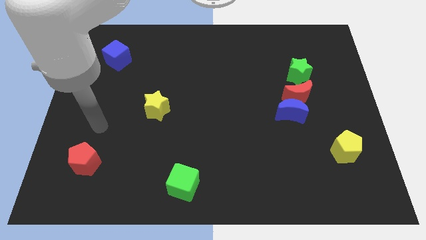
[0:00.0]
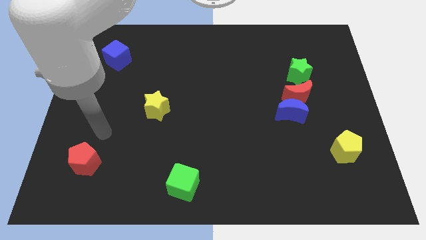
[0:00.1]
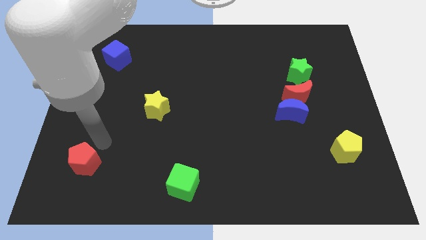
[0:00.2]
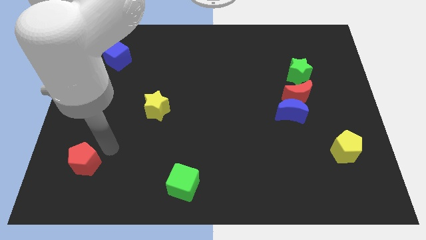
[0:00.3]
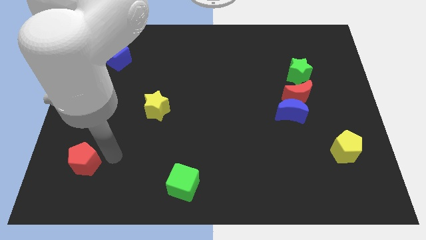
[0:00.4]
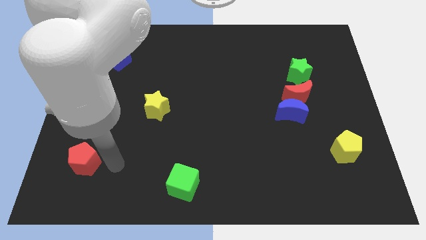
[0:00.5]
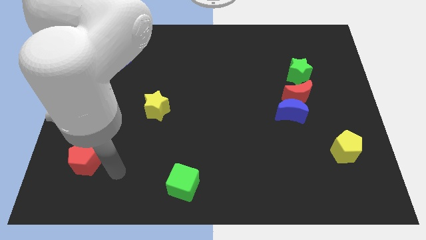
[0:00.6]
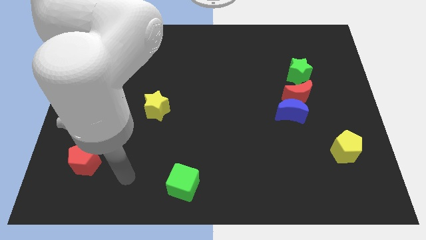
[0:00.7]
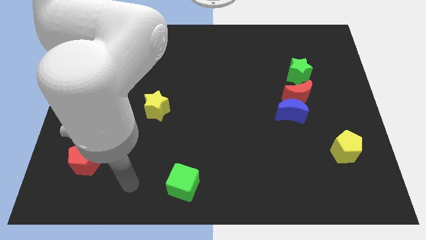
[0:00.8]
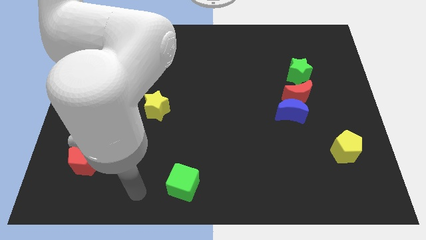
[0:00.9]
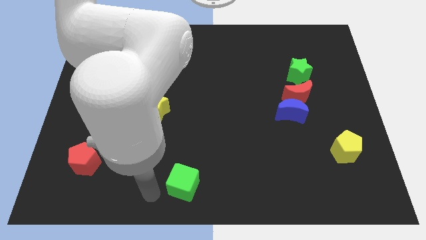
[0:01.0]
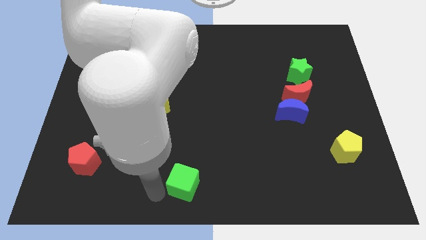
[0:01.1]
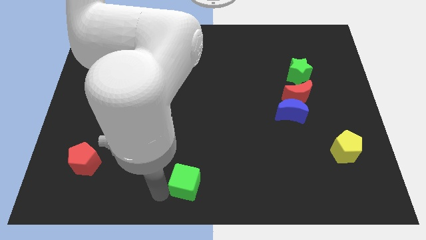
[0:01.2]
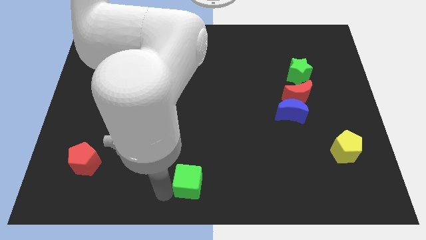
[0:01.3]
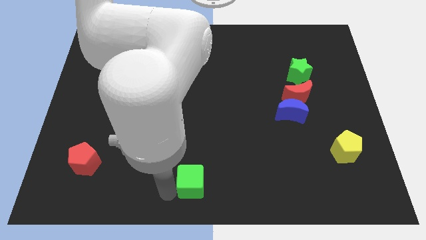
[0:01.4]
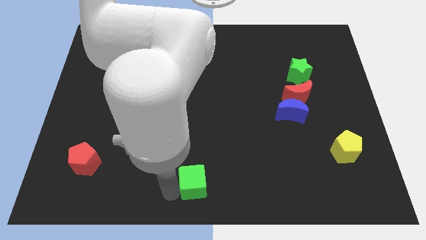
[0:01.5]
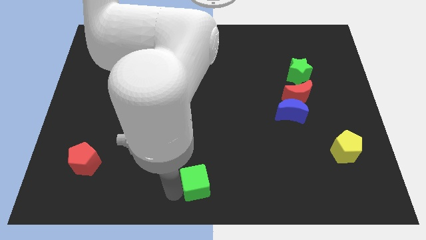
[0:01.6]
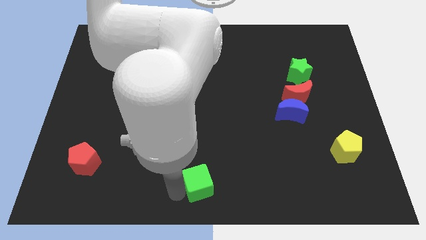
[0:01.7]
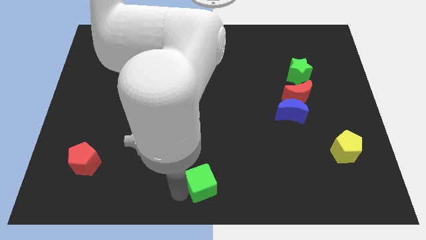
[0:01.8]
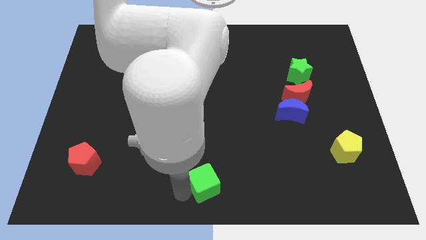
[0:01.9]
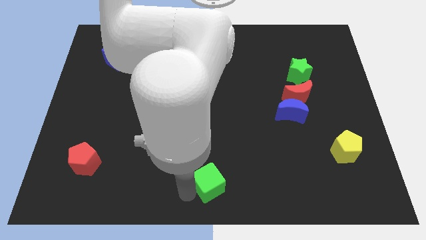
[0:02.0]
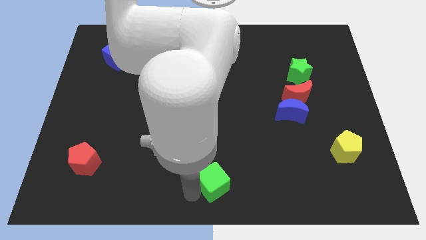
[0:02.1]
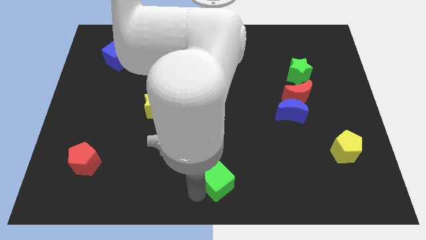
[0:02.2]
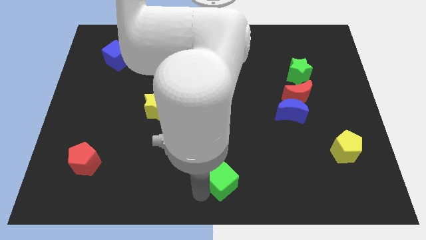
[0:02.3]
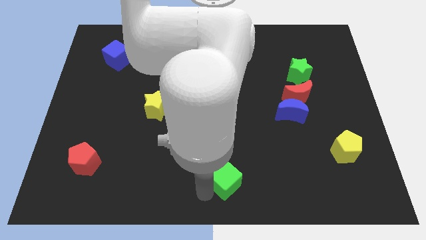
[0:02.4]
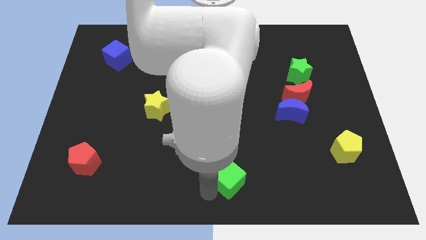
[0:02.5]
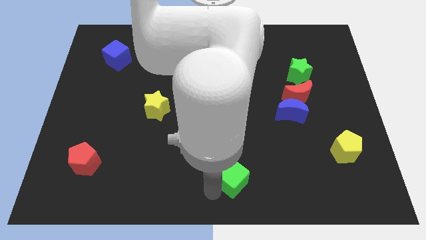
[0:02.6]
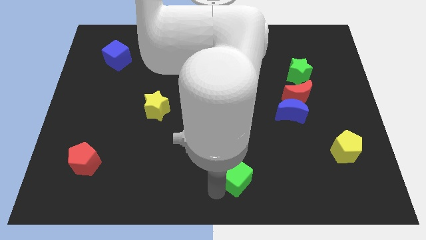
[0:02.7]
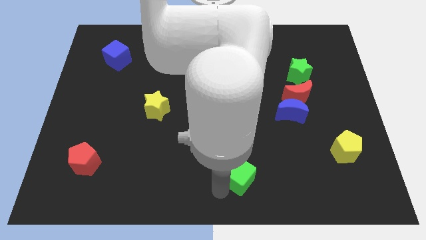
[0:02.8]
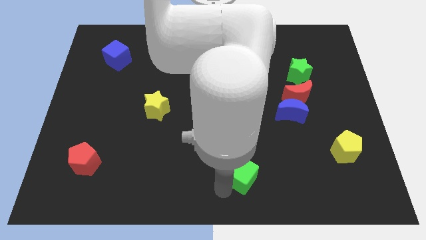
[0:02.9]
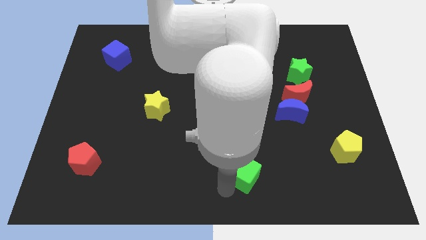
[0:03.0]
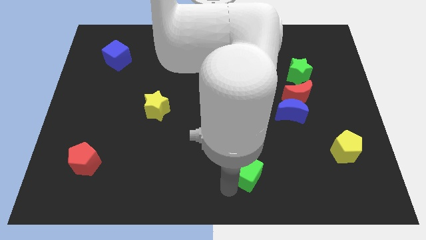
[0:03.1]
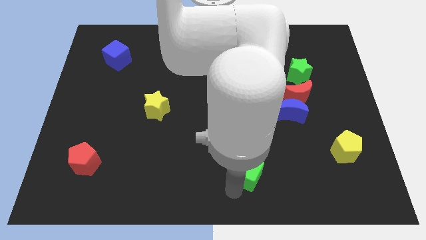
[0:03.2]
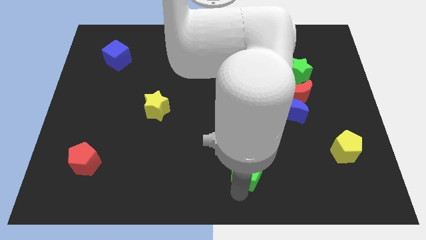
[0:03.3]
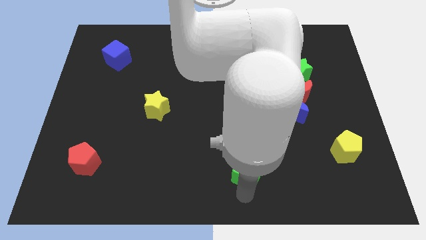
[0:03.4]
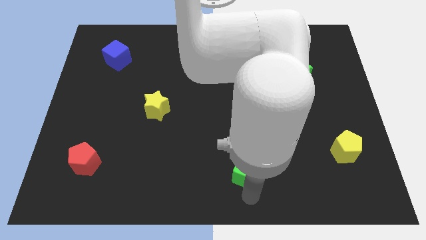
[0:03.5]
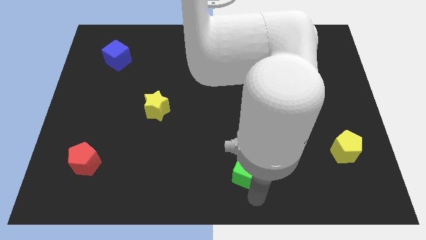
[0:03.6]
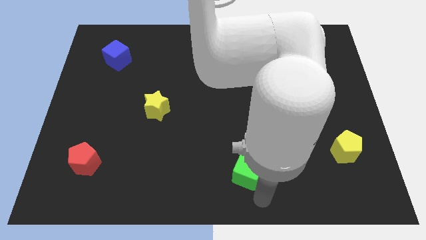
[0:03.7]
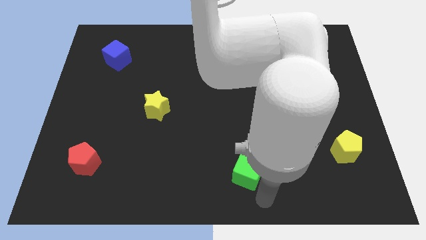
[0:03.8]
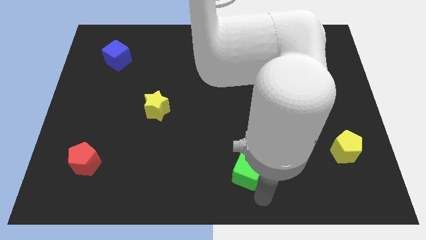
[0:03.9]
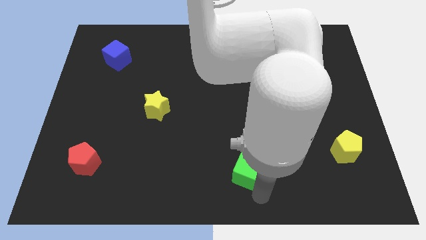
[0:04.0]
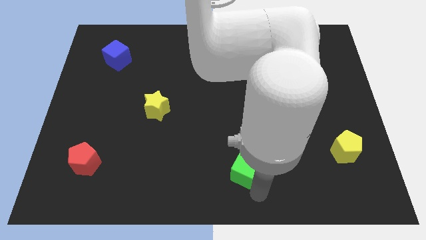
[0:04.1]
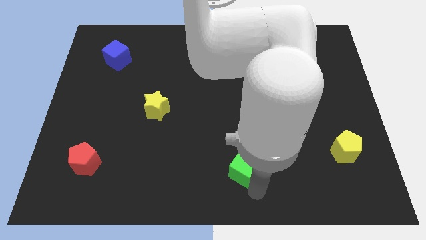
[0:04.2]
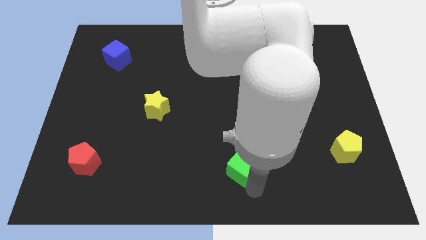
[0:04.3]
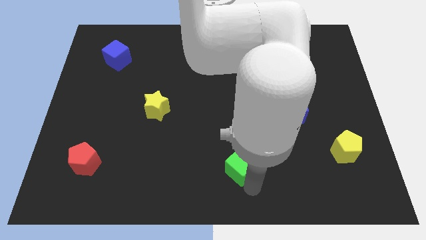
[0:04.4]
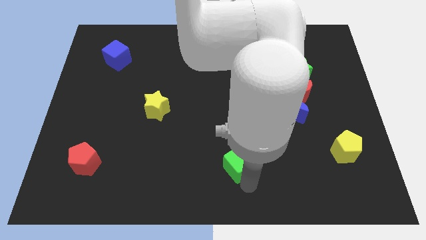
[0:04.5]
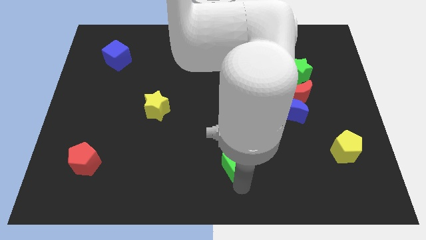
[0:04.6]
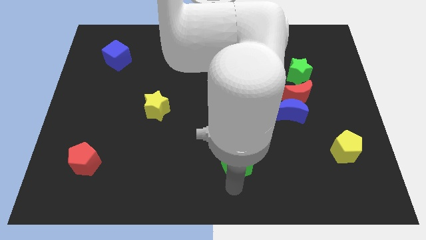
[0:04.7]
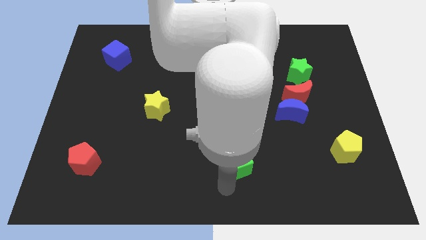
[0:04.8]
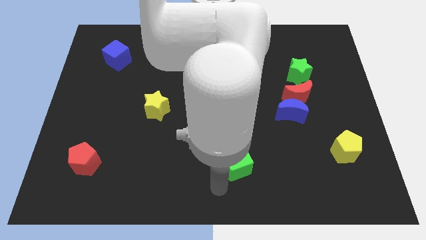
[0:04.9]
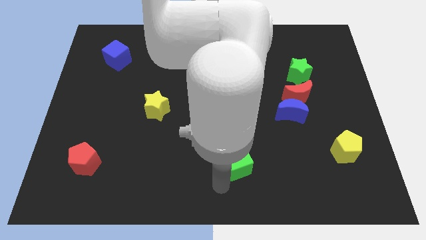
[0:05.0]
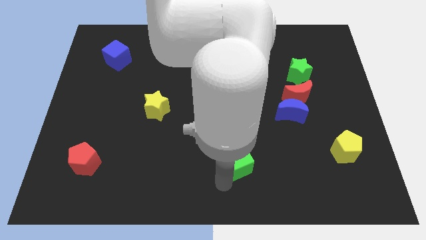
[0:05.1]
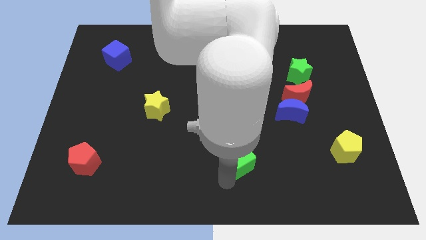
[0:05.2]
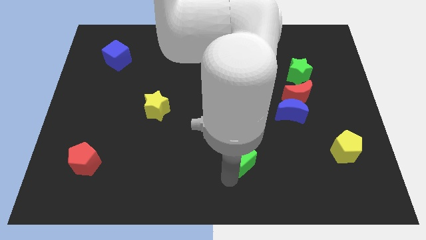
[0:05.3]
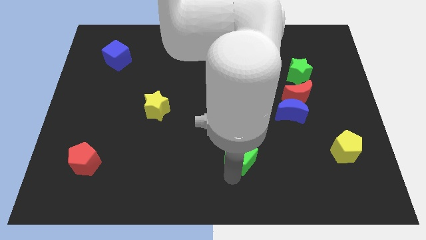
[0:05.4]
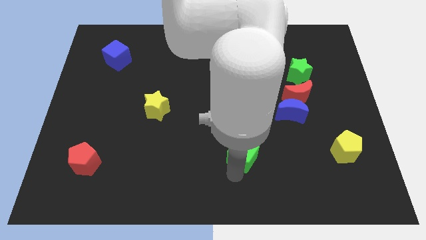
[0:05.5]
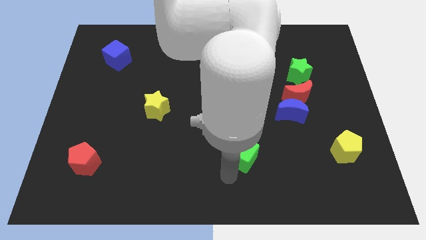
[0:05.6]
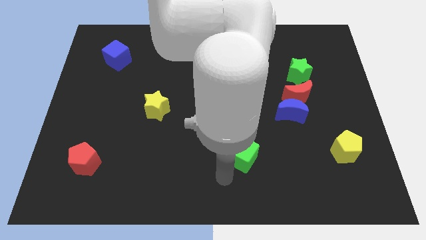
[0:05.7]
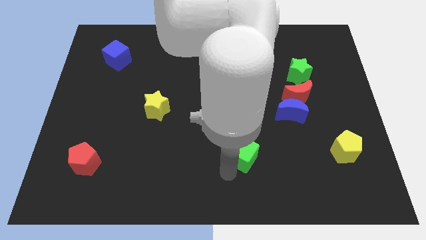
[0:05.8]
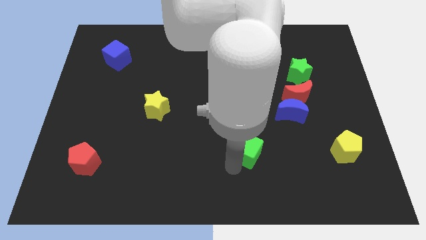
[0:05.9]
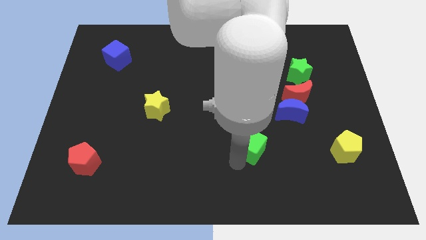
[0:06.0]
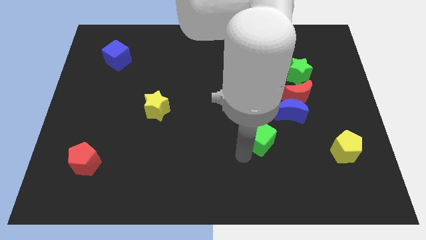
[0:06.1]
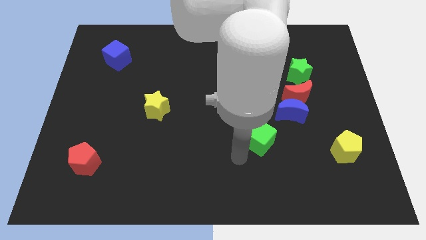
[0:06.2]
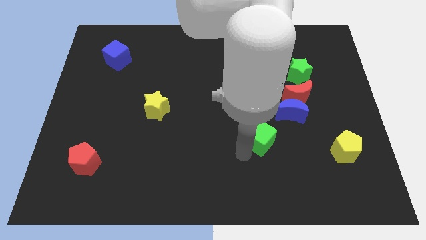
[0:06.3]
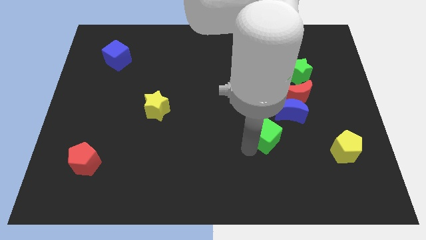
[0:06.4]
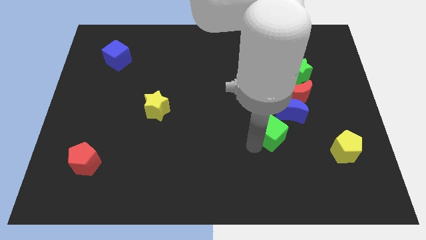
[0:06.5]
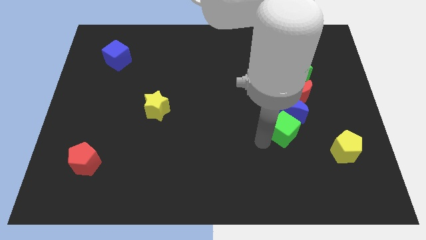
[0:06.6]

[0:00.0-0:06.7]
put the green cube to the blue moon

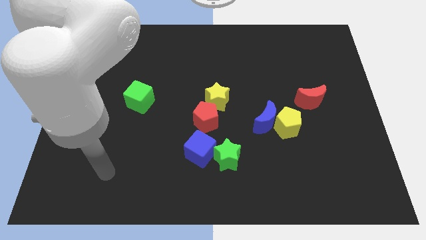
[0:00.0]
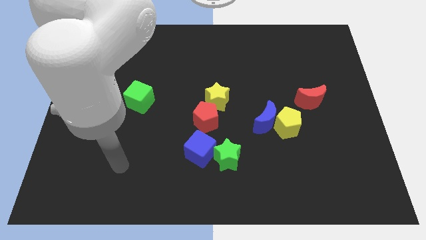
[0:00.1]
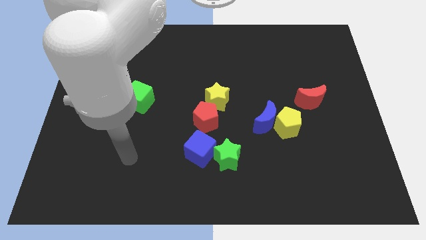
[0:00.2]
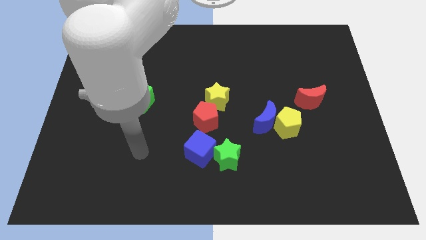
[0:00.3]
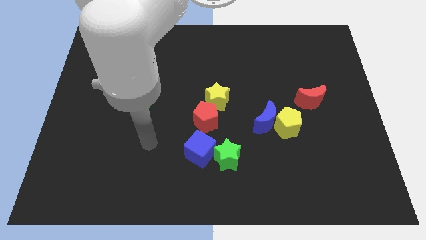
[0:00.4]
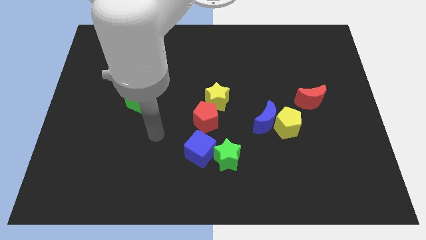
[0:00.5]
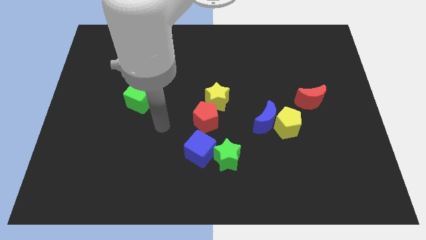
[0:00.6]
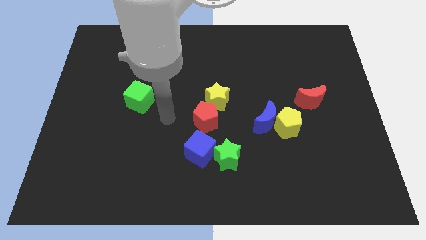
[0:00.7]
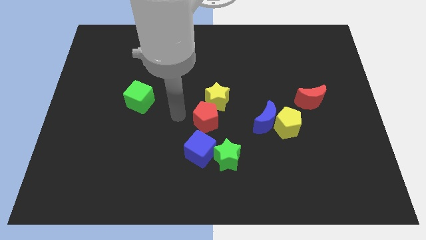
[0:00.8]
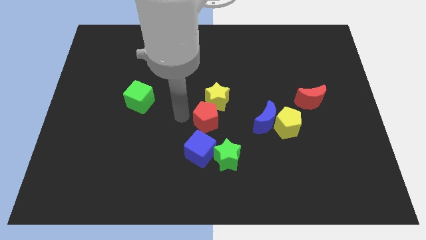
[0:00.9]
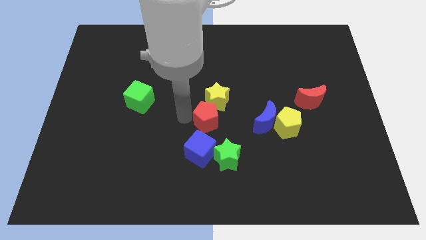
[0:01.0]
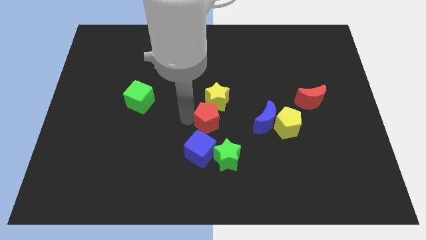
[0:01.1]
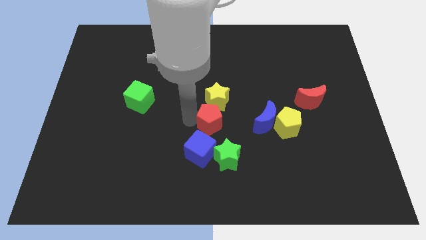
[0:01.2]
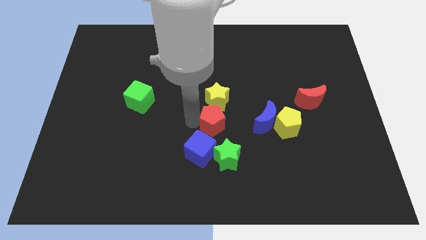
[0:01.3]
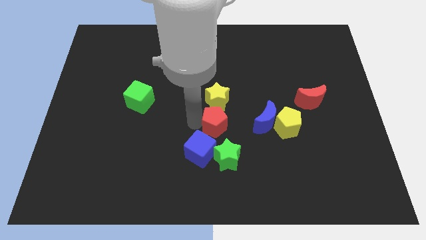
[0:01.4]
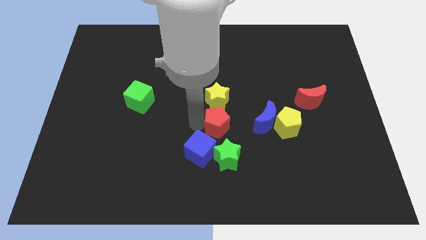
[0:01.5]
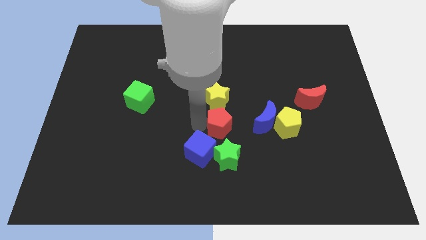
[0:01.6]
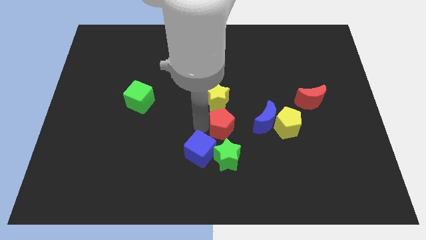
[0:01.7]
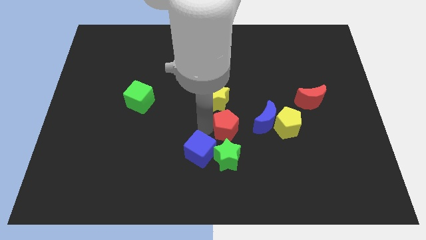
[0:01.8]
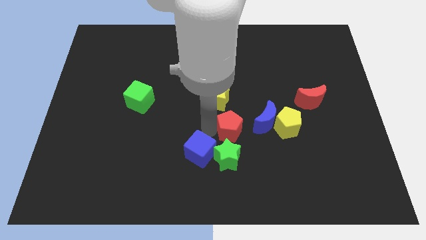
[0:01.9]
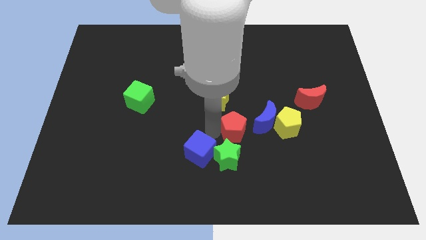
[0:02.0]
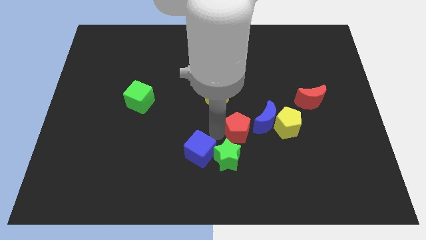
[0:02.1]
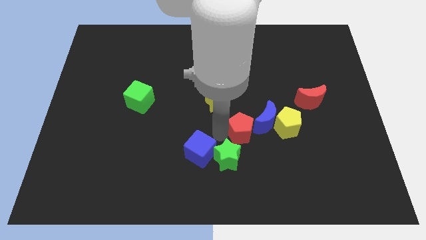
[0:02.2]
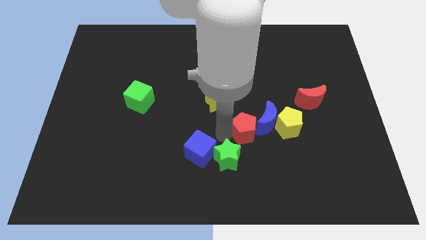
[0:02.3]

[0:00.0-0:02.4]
push the red pentagon next to the blue moon
